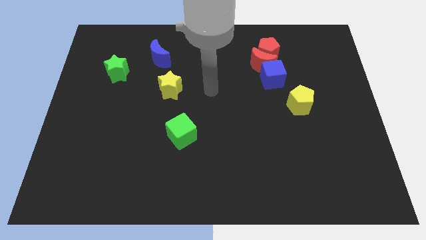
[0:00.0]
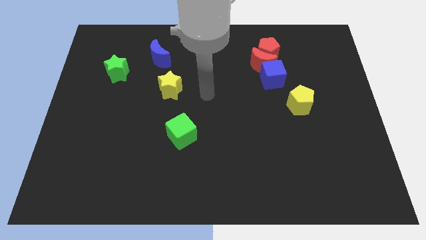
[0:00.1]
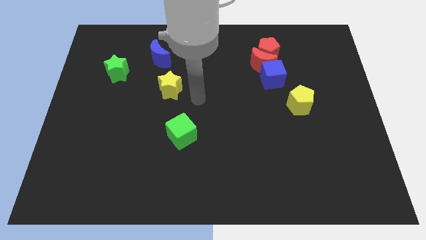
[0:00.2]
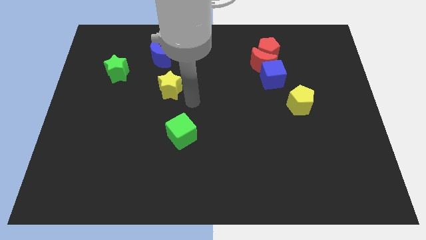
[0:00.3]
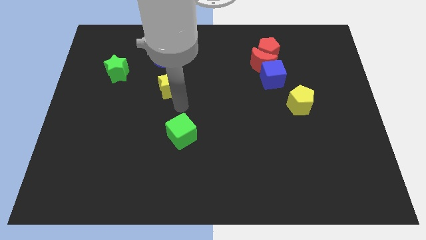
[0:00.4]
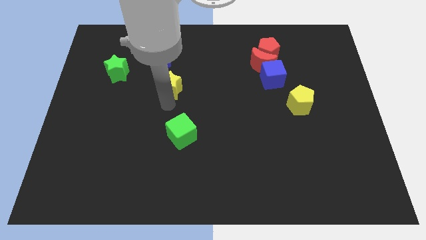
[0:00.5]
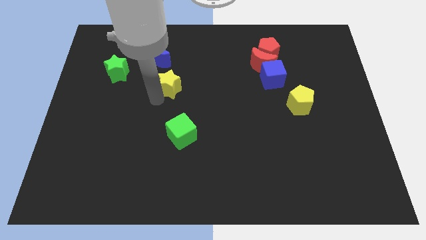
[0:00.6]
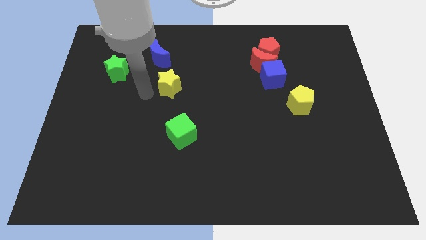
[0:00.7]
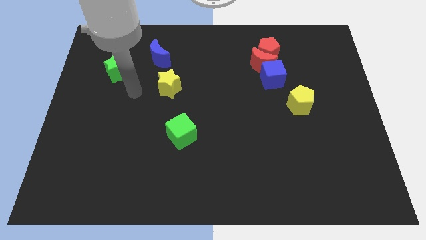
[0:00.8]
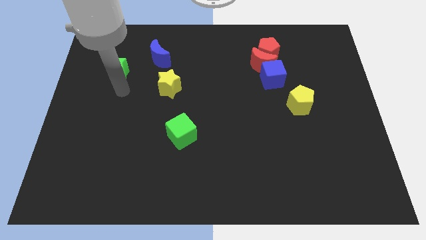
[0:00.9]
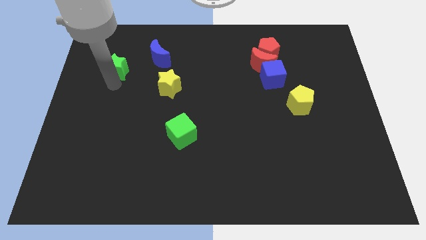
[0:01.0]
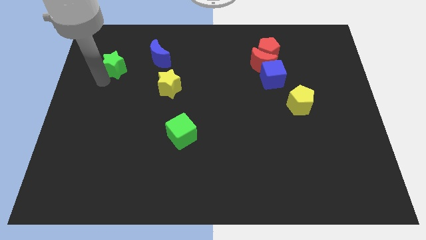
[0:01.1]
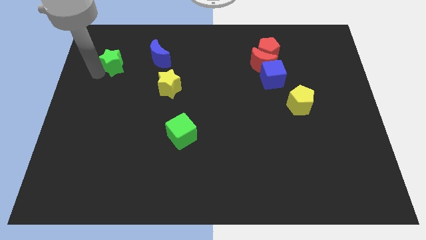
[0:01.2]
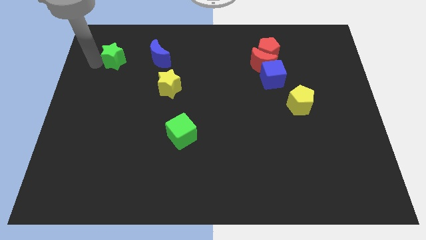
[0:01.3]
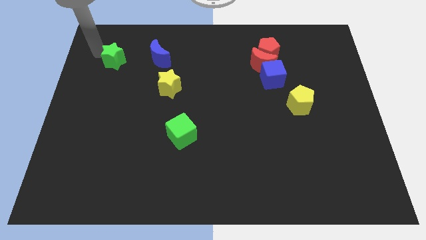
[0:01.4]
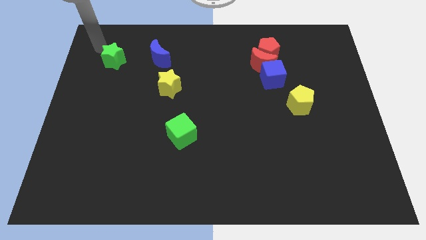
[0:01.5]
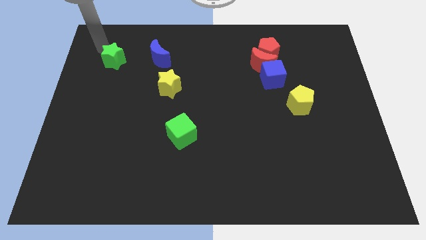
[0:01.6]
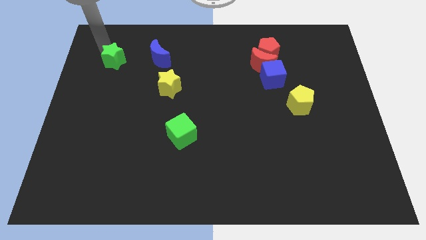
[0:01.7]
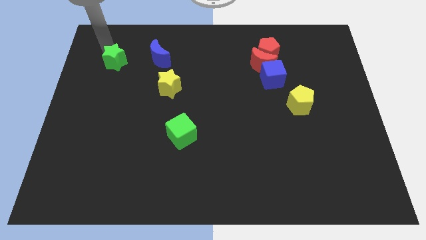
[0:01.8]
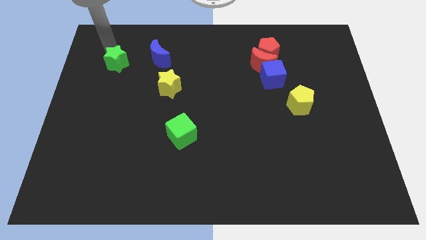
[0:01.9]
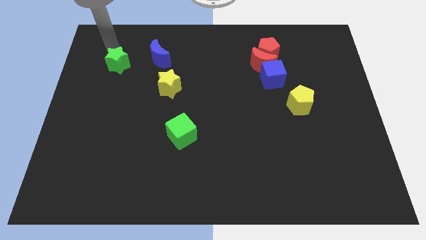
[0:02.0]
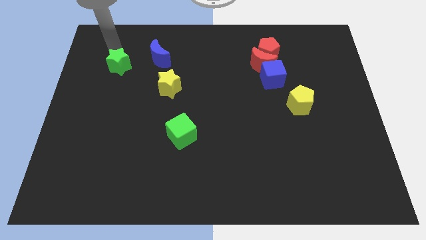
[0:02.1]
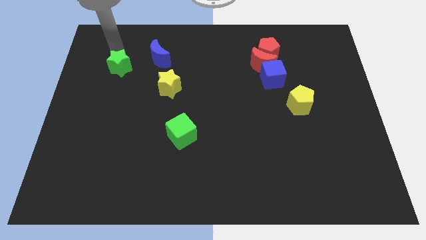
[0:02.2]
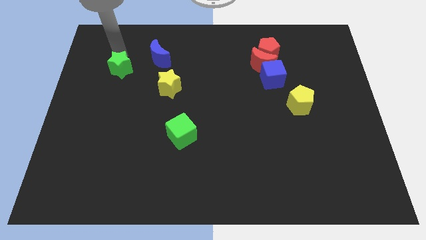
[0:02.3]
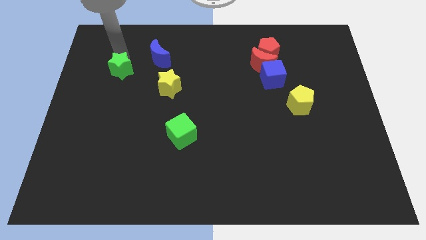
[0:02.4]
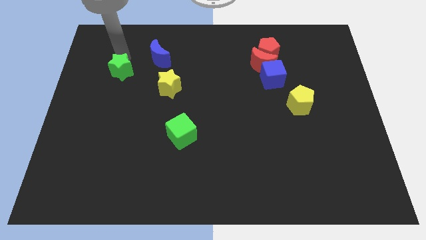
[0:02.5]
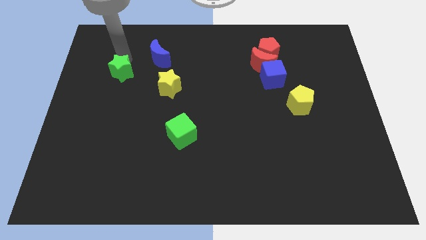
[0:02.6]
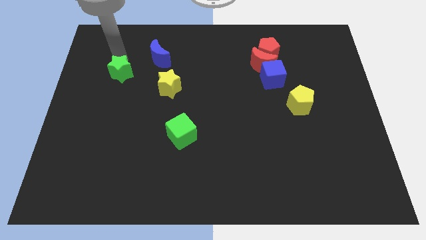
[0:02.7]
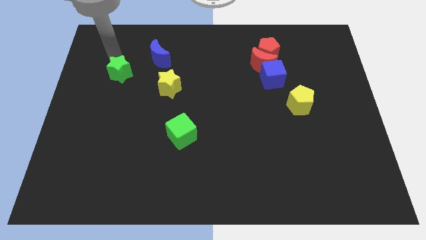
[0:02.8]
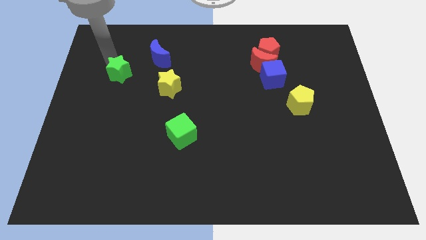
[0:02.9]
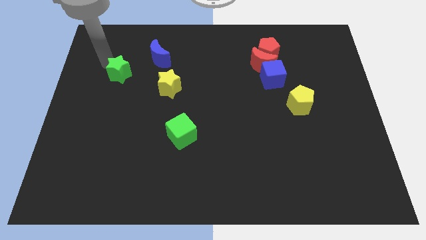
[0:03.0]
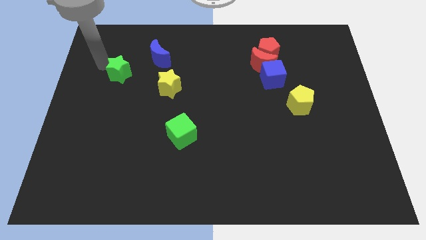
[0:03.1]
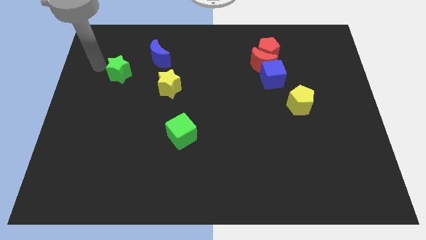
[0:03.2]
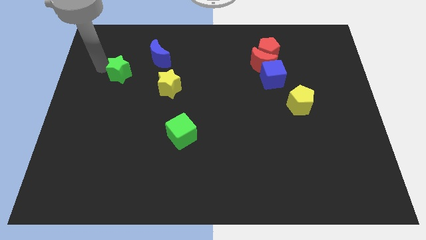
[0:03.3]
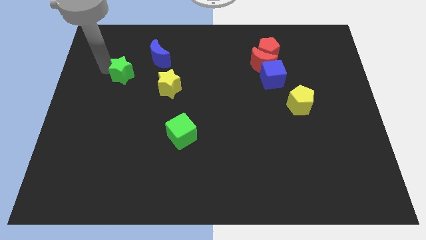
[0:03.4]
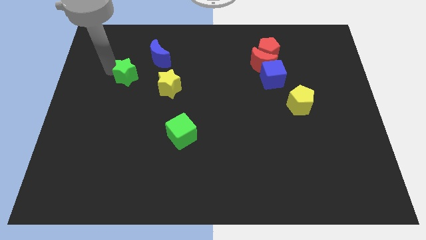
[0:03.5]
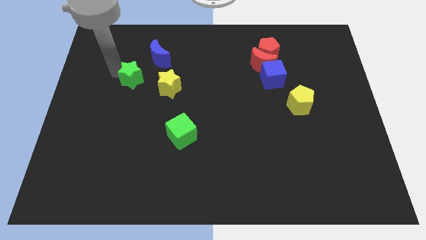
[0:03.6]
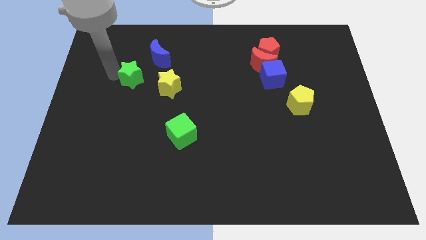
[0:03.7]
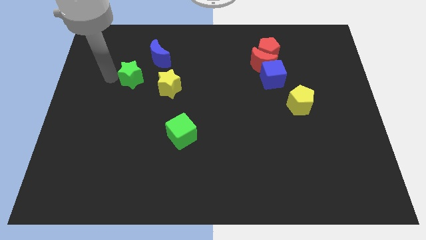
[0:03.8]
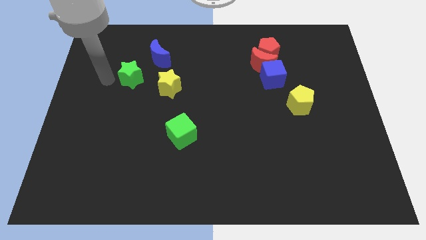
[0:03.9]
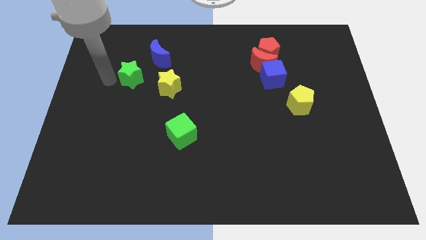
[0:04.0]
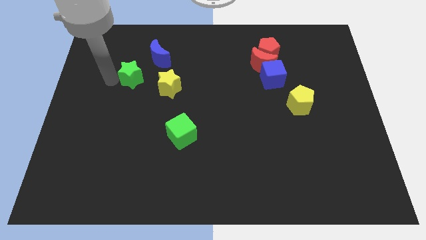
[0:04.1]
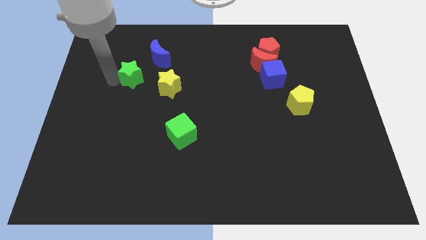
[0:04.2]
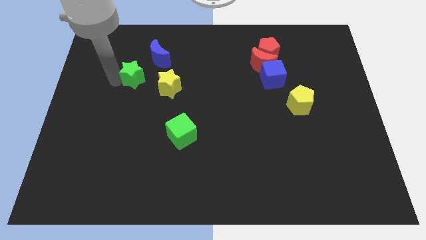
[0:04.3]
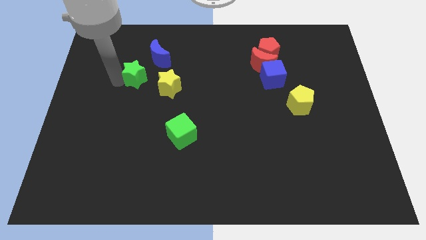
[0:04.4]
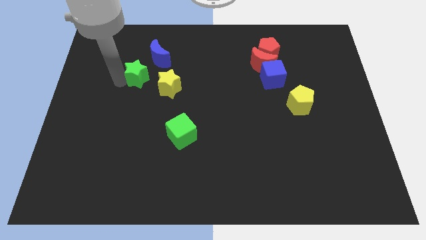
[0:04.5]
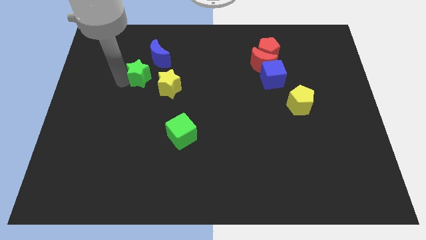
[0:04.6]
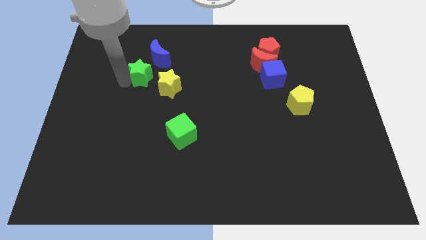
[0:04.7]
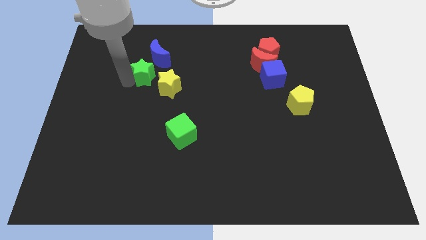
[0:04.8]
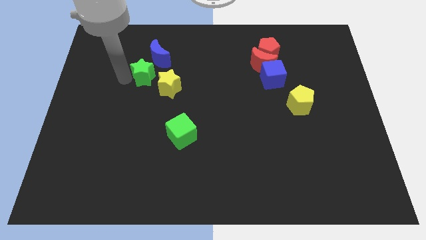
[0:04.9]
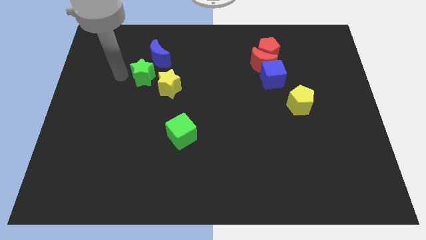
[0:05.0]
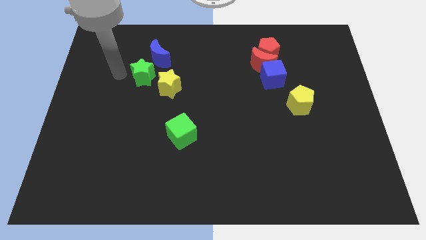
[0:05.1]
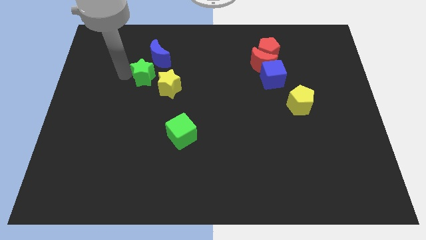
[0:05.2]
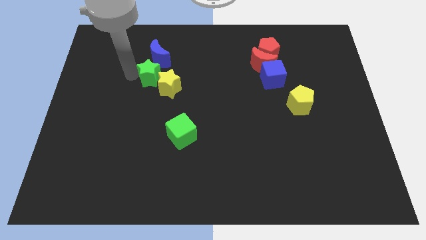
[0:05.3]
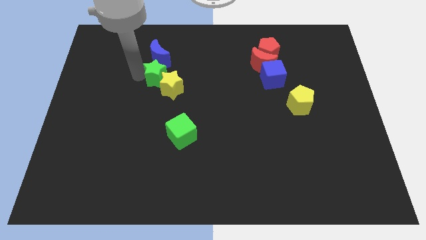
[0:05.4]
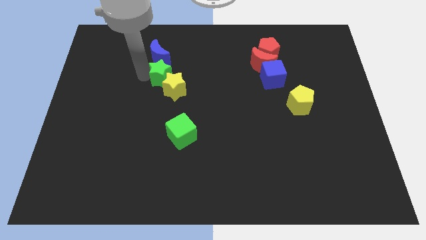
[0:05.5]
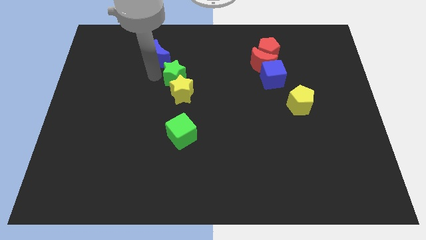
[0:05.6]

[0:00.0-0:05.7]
move the green star to the middle of the board

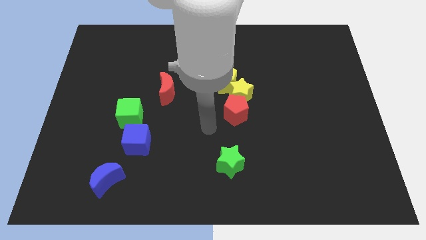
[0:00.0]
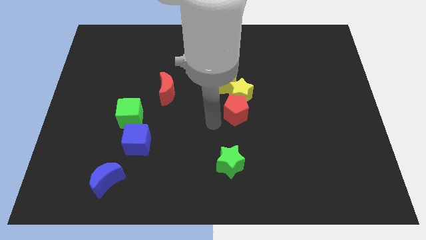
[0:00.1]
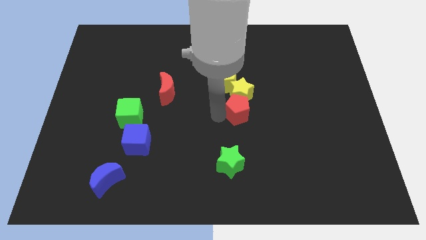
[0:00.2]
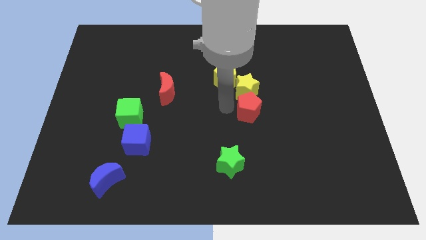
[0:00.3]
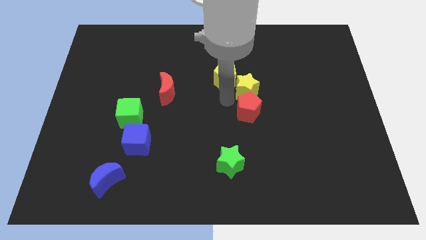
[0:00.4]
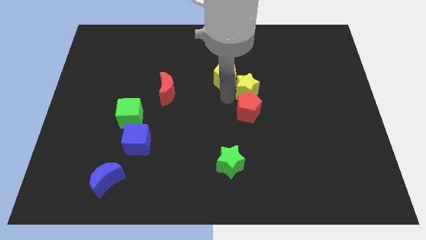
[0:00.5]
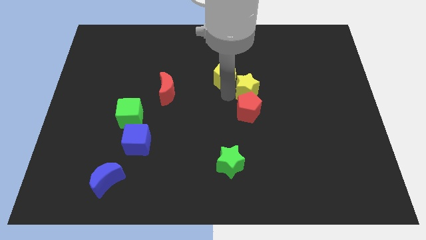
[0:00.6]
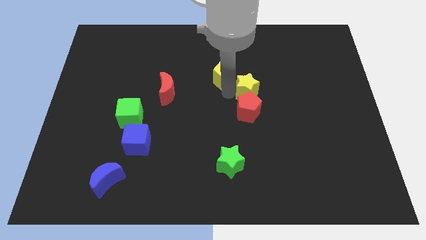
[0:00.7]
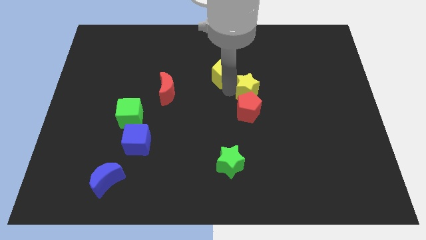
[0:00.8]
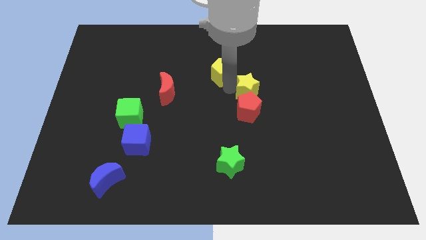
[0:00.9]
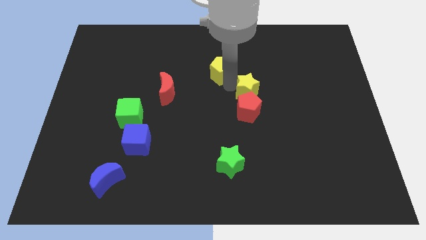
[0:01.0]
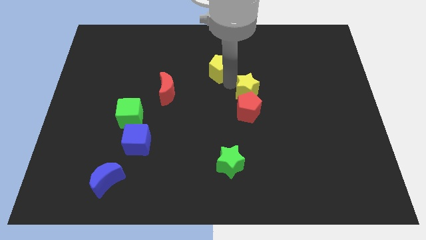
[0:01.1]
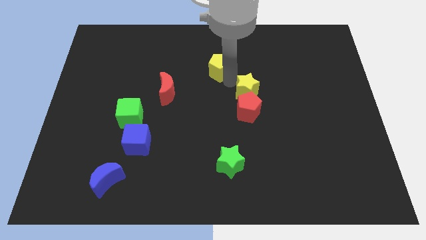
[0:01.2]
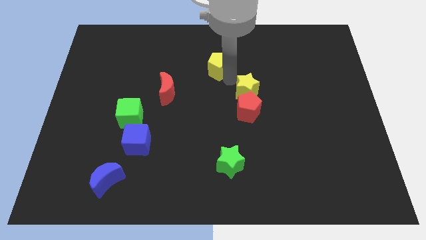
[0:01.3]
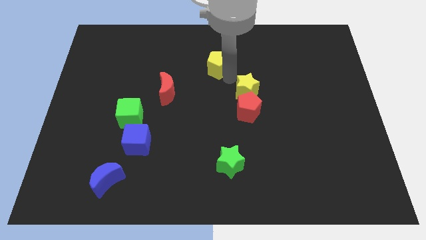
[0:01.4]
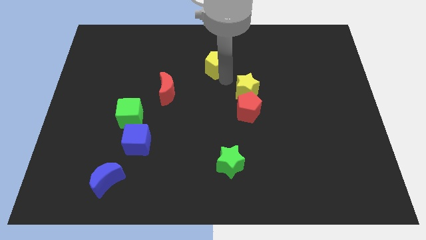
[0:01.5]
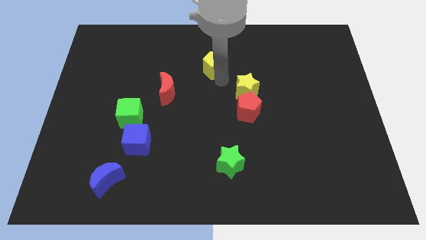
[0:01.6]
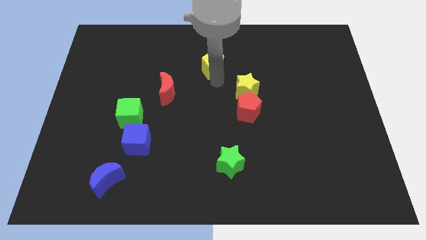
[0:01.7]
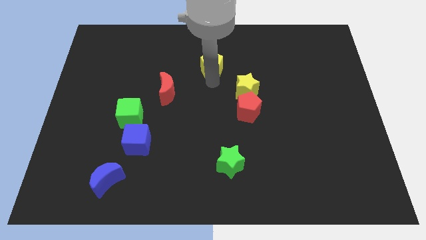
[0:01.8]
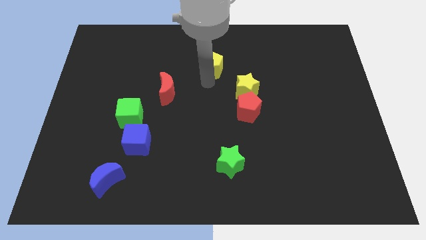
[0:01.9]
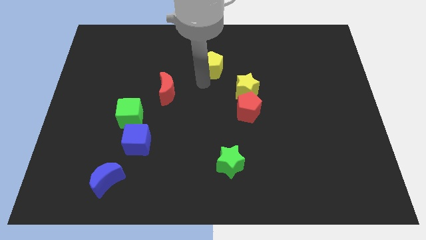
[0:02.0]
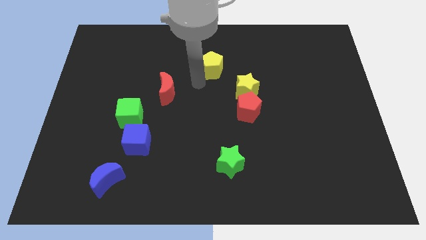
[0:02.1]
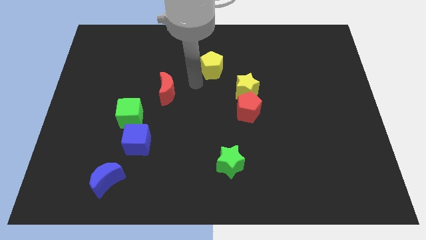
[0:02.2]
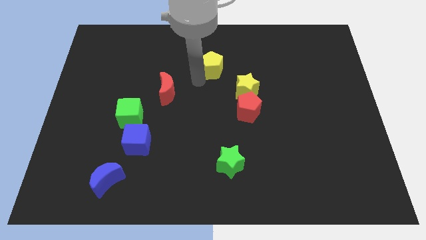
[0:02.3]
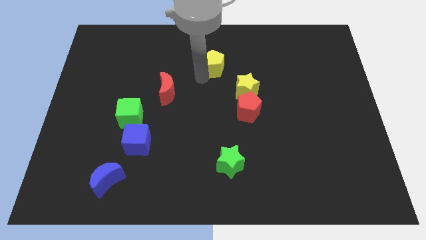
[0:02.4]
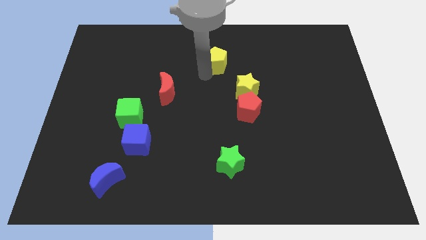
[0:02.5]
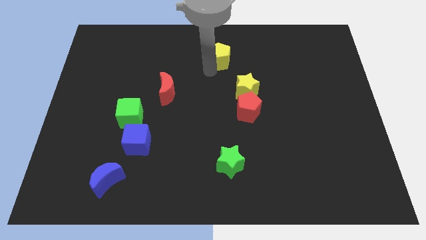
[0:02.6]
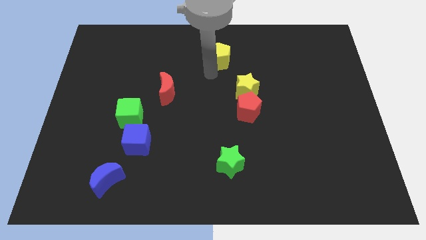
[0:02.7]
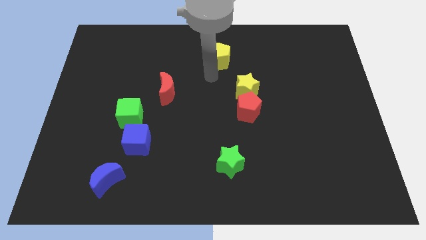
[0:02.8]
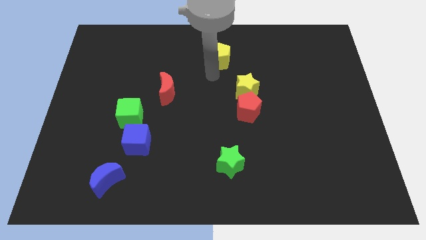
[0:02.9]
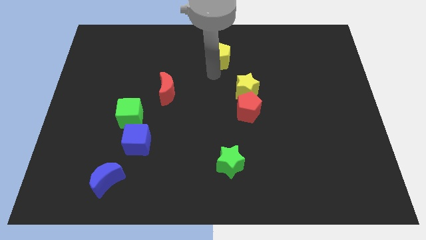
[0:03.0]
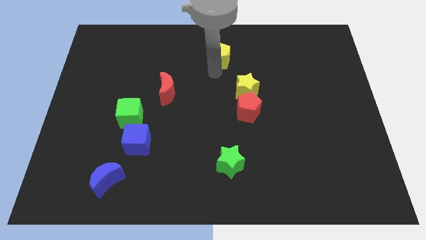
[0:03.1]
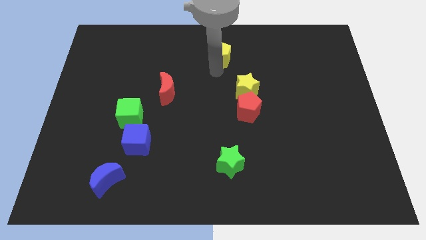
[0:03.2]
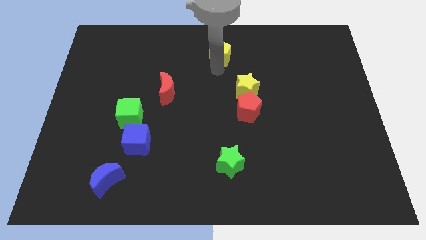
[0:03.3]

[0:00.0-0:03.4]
move the yellow pentagon to the towards your base
